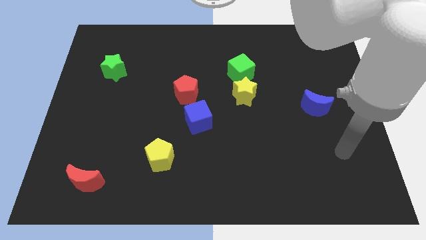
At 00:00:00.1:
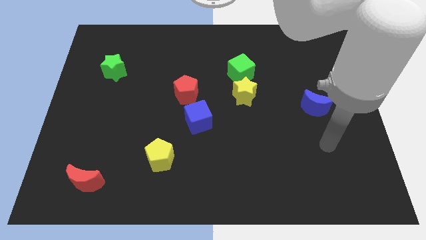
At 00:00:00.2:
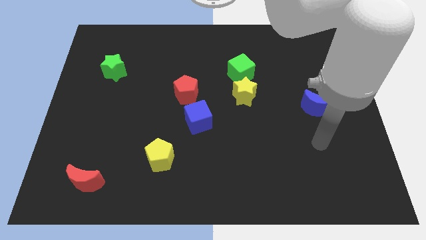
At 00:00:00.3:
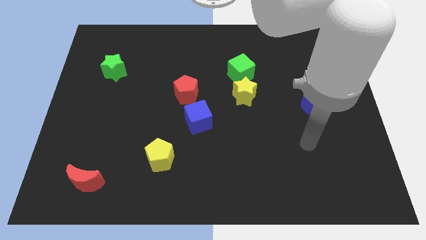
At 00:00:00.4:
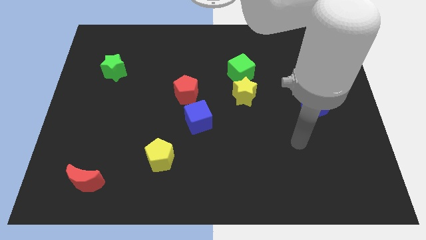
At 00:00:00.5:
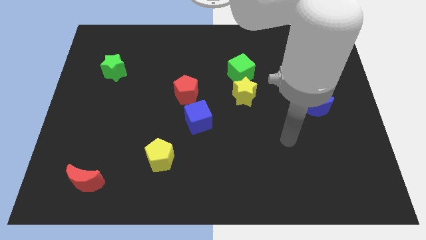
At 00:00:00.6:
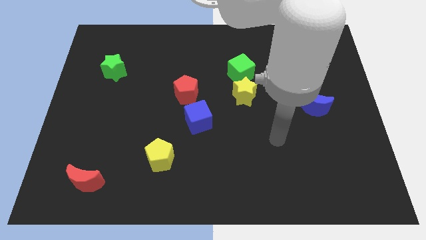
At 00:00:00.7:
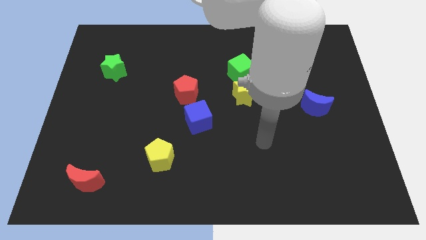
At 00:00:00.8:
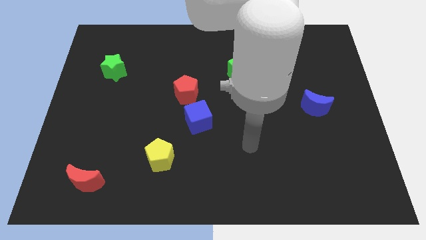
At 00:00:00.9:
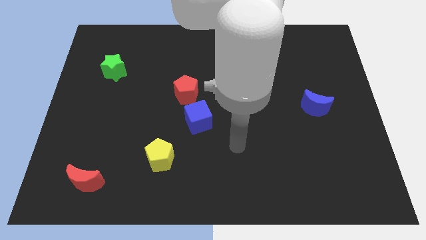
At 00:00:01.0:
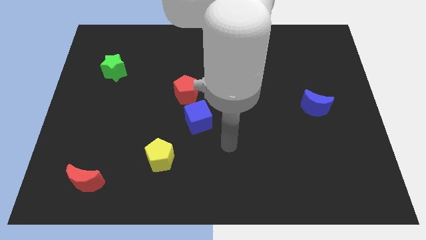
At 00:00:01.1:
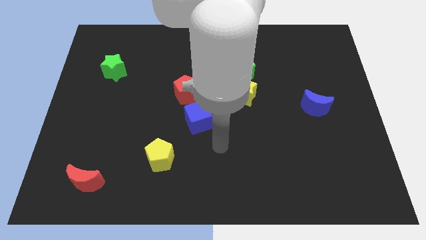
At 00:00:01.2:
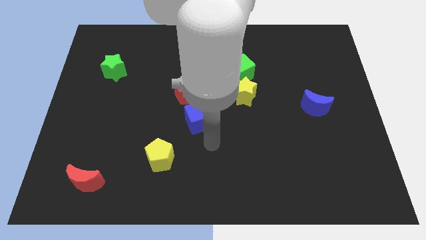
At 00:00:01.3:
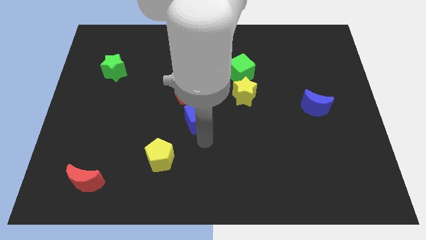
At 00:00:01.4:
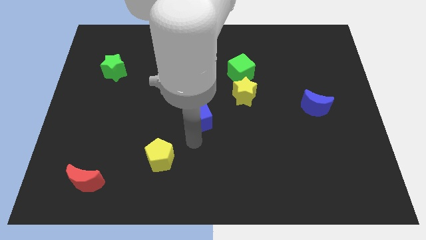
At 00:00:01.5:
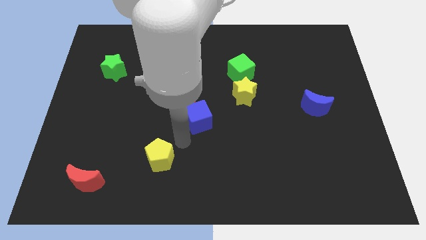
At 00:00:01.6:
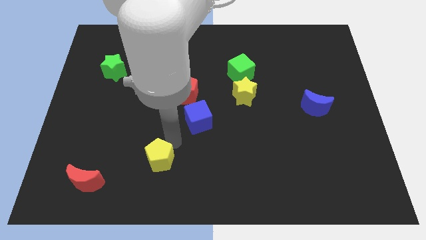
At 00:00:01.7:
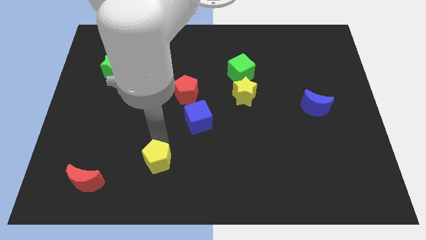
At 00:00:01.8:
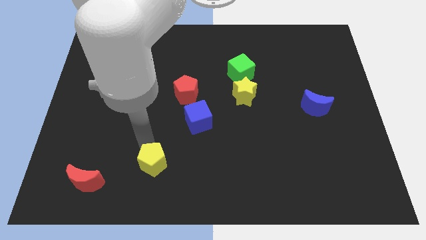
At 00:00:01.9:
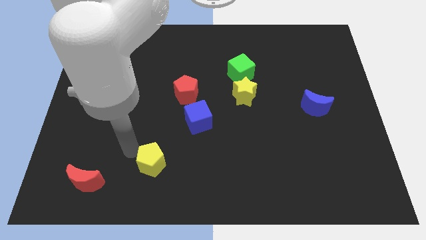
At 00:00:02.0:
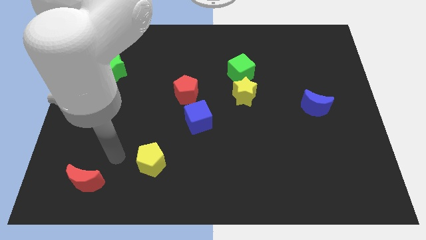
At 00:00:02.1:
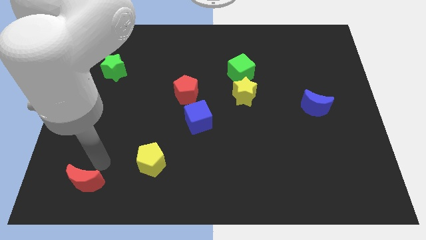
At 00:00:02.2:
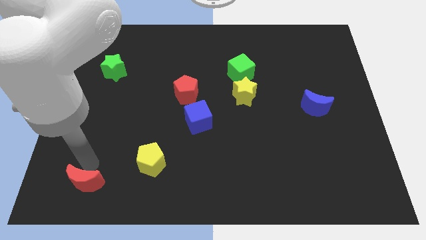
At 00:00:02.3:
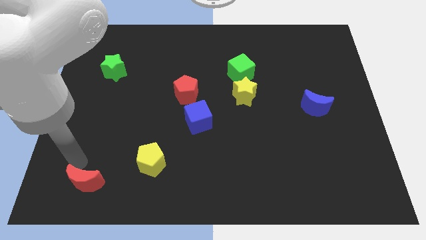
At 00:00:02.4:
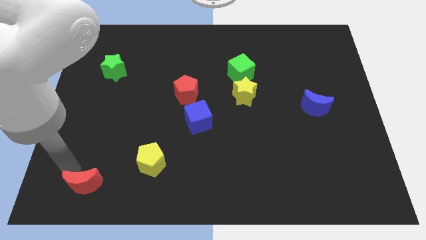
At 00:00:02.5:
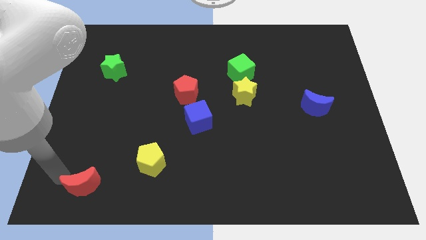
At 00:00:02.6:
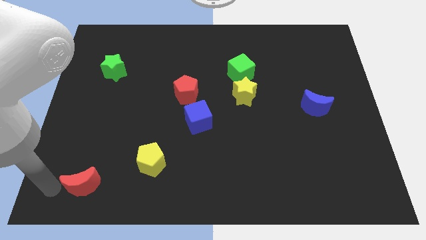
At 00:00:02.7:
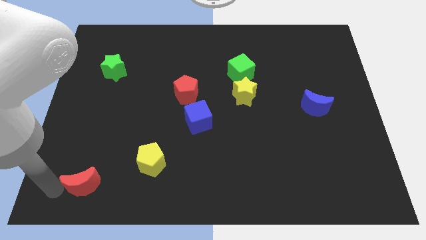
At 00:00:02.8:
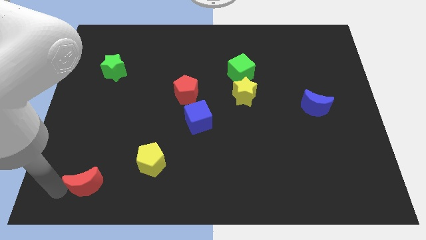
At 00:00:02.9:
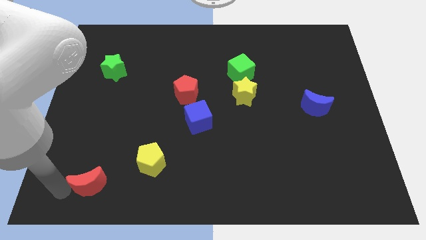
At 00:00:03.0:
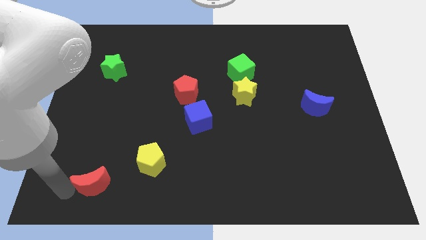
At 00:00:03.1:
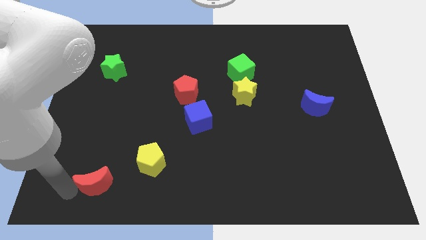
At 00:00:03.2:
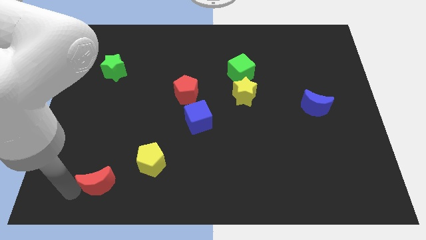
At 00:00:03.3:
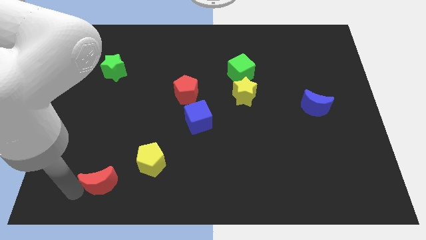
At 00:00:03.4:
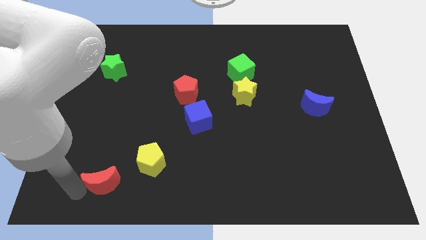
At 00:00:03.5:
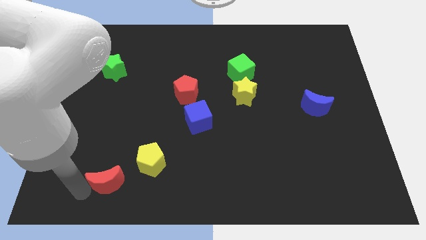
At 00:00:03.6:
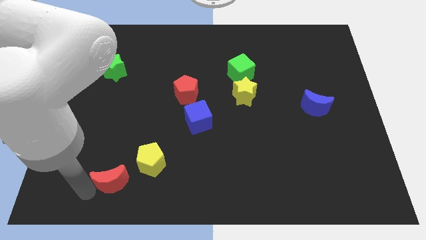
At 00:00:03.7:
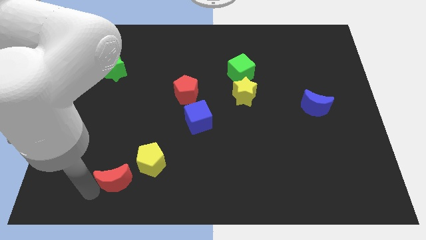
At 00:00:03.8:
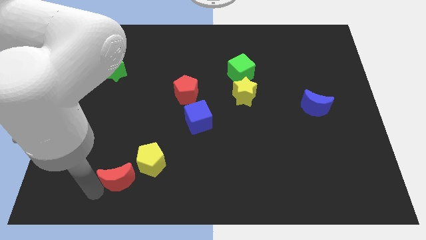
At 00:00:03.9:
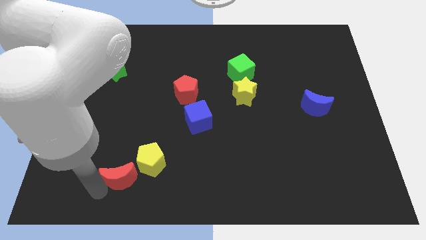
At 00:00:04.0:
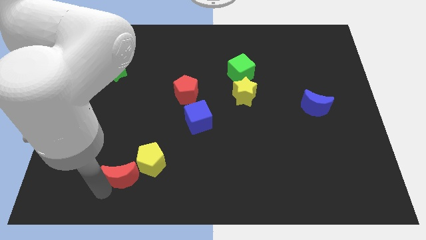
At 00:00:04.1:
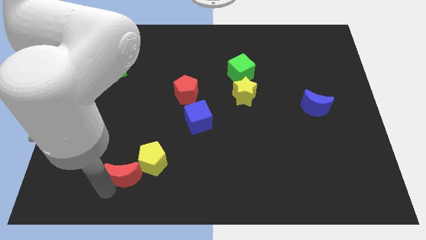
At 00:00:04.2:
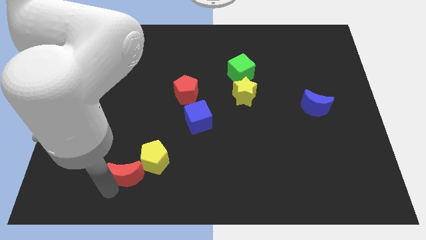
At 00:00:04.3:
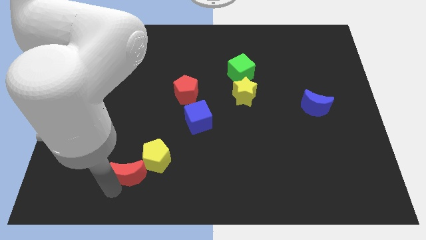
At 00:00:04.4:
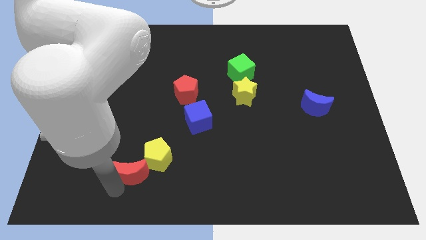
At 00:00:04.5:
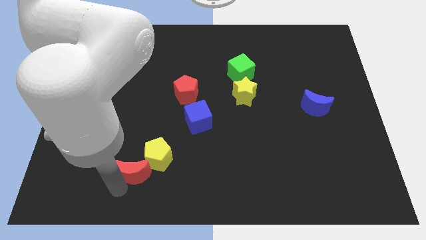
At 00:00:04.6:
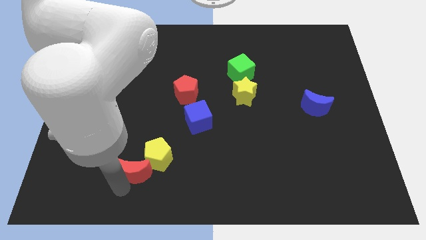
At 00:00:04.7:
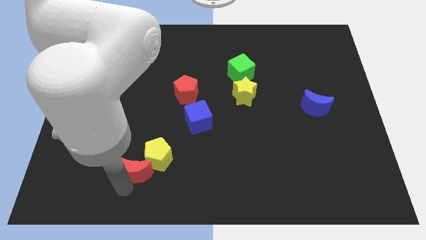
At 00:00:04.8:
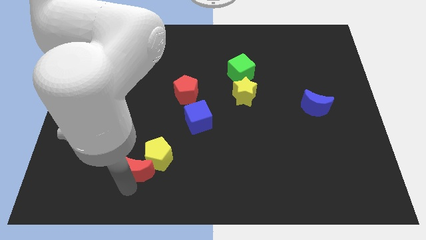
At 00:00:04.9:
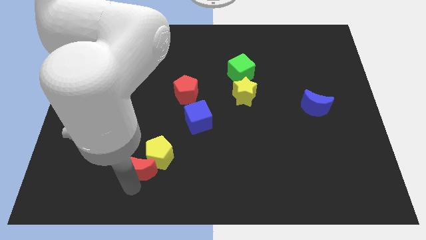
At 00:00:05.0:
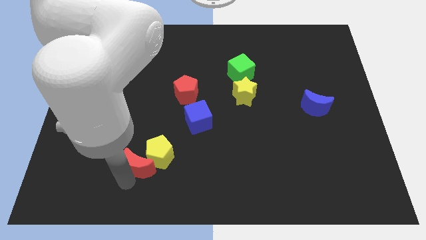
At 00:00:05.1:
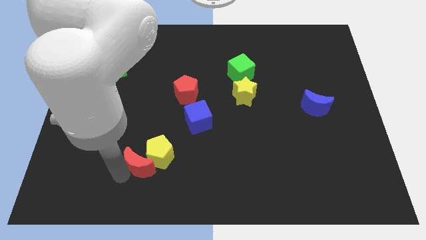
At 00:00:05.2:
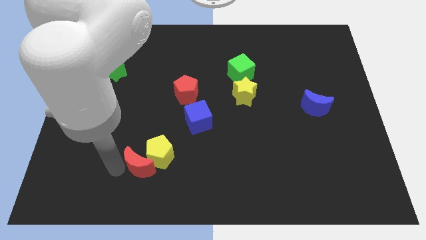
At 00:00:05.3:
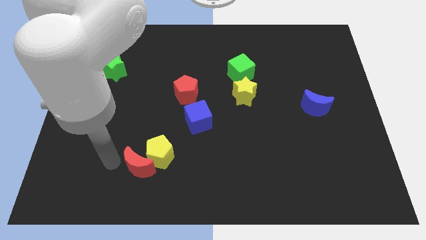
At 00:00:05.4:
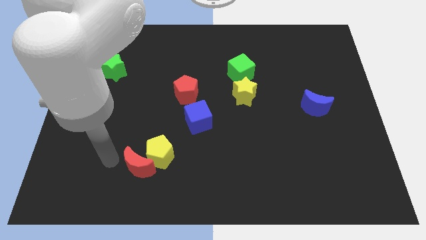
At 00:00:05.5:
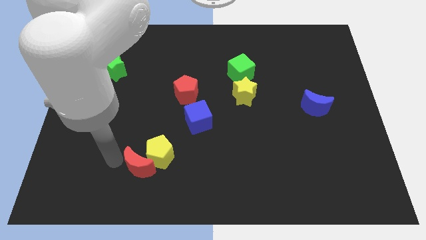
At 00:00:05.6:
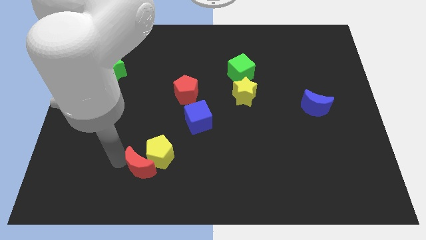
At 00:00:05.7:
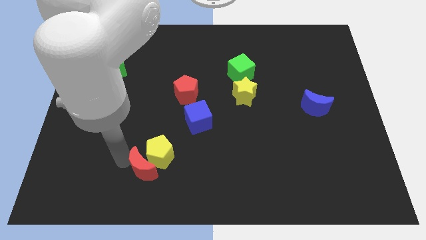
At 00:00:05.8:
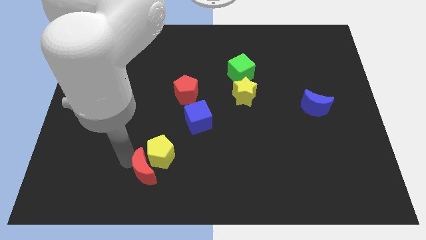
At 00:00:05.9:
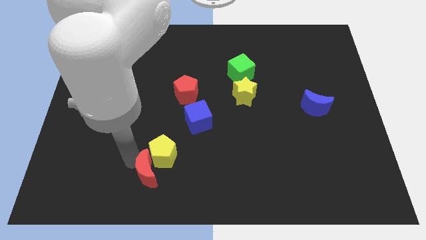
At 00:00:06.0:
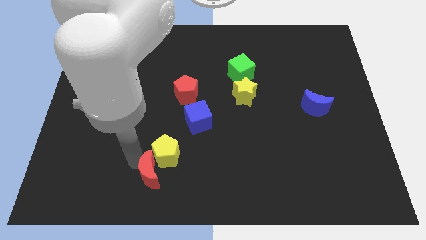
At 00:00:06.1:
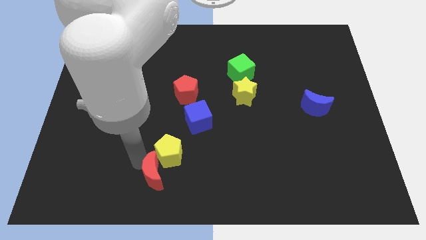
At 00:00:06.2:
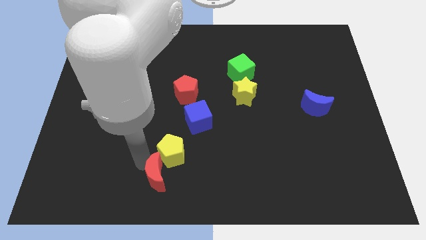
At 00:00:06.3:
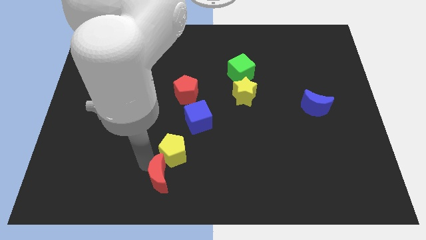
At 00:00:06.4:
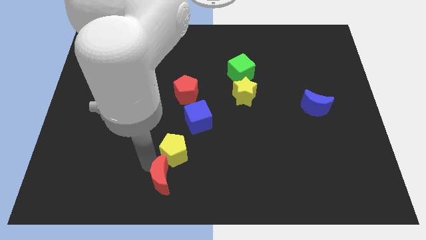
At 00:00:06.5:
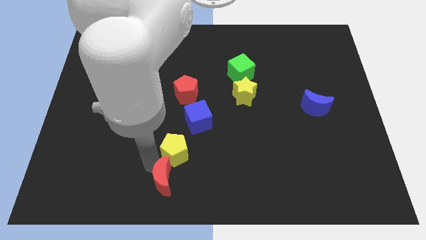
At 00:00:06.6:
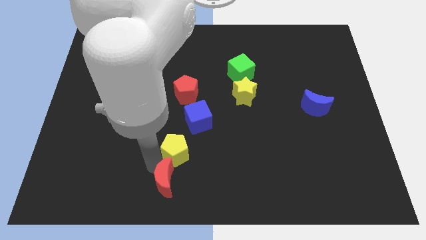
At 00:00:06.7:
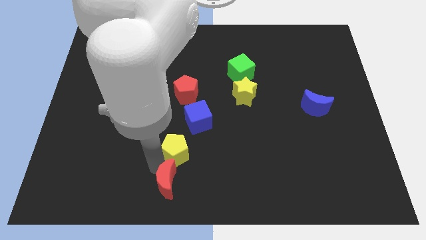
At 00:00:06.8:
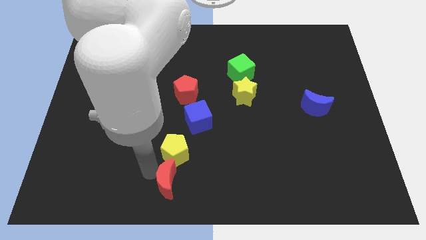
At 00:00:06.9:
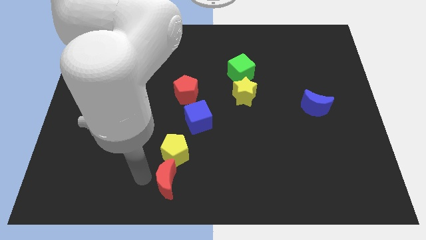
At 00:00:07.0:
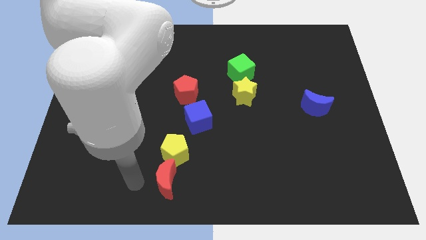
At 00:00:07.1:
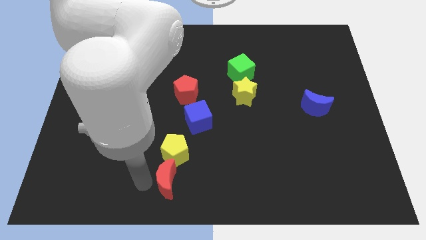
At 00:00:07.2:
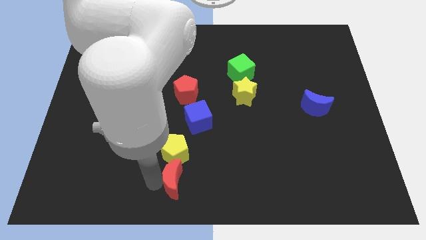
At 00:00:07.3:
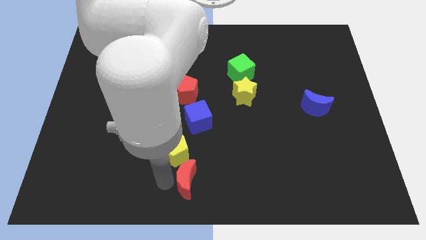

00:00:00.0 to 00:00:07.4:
push the red moon right

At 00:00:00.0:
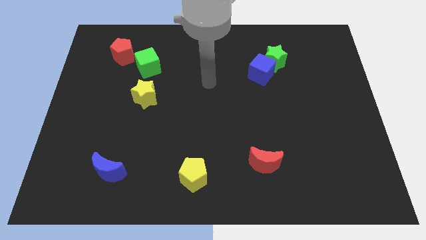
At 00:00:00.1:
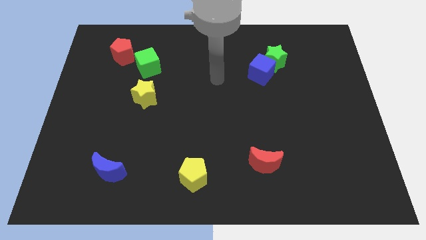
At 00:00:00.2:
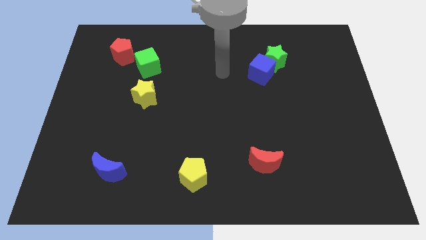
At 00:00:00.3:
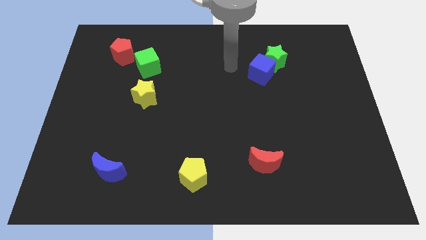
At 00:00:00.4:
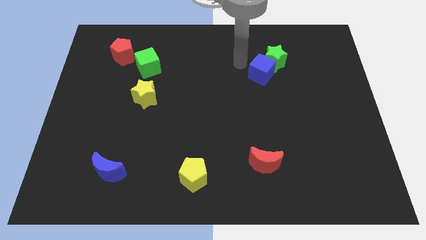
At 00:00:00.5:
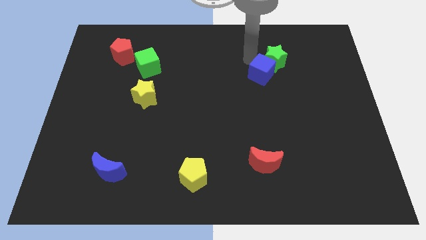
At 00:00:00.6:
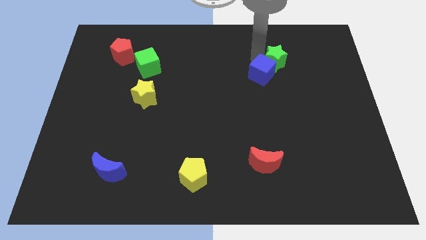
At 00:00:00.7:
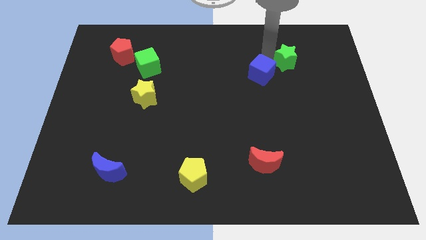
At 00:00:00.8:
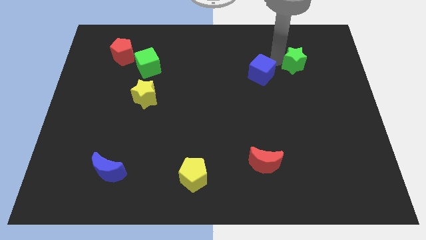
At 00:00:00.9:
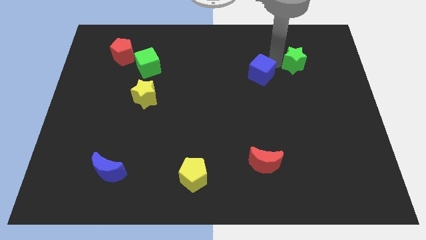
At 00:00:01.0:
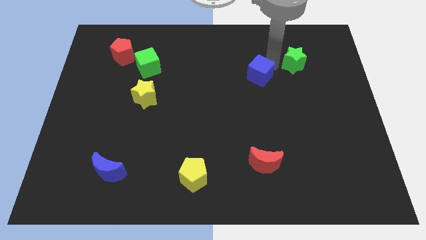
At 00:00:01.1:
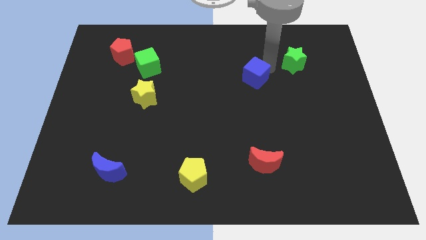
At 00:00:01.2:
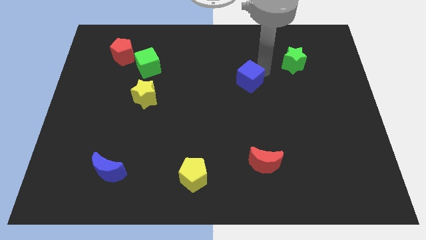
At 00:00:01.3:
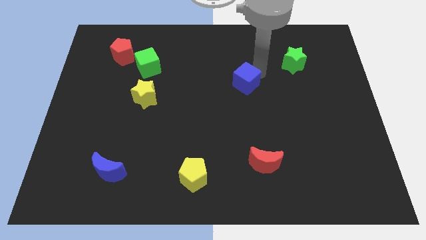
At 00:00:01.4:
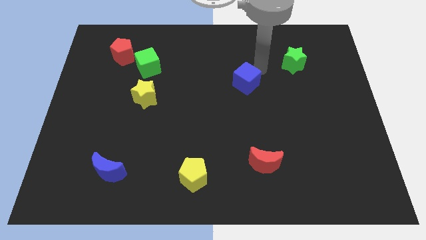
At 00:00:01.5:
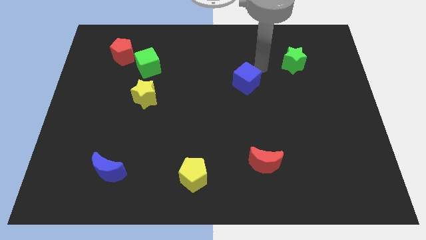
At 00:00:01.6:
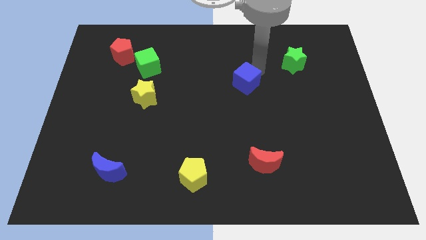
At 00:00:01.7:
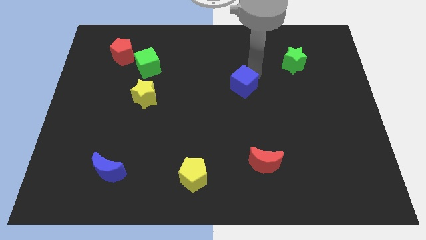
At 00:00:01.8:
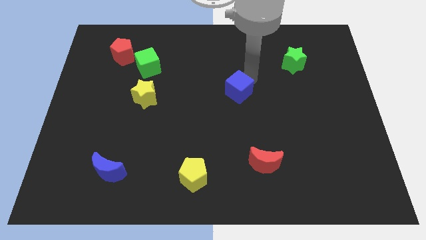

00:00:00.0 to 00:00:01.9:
slightly slide the blue cube down and left
